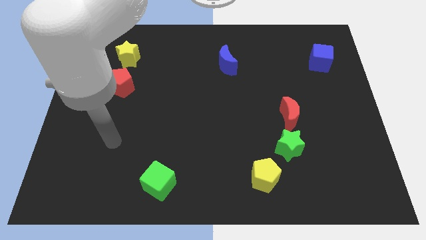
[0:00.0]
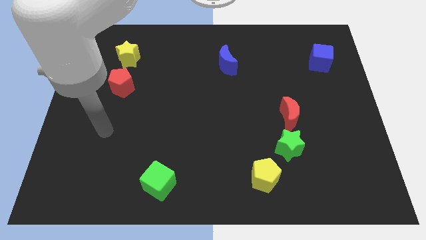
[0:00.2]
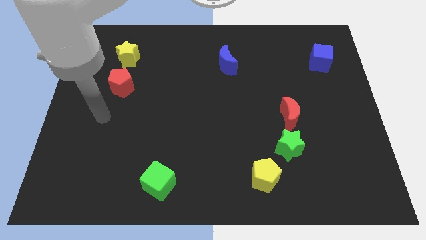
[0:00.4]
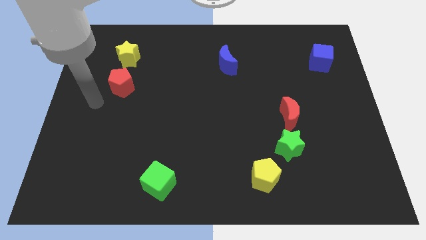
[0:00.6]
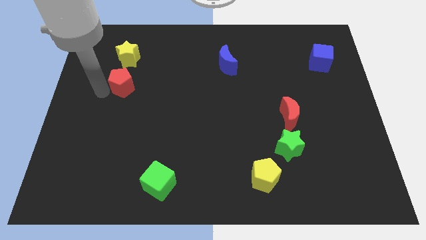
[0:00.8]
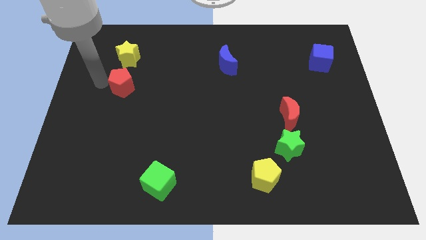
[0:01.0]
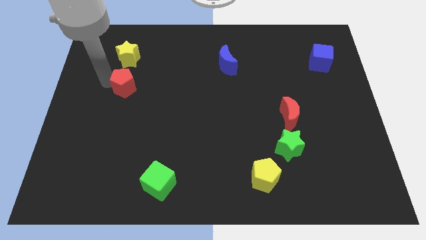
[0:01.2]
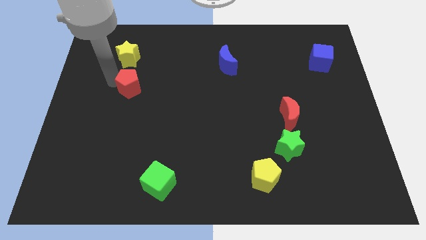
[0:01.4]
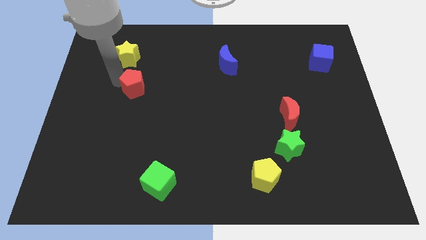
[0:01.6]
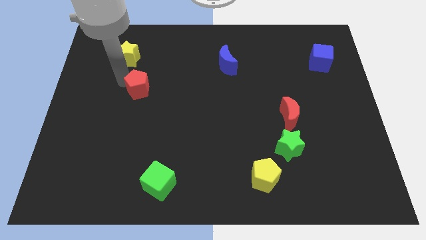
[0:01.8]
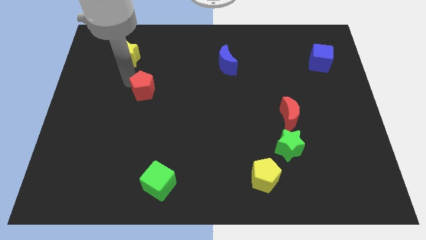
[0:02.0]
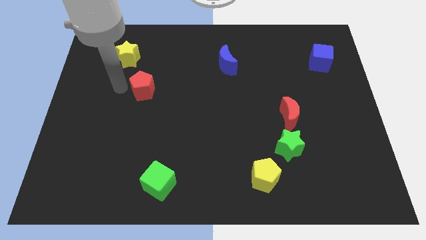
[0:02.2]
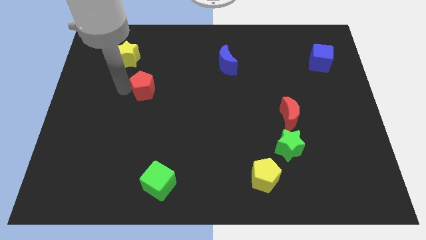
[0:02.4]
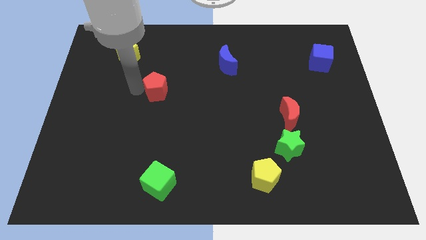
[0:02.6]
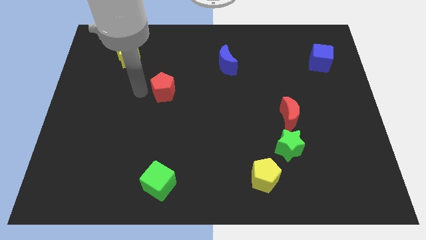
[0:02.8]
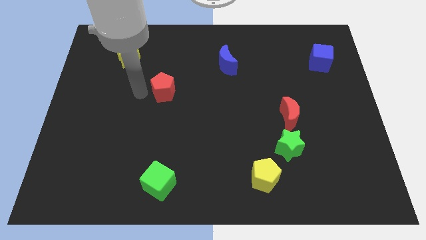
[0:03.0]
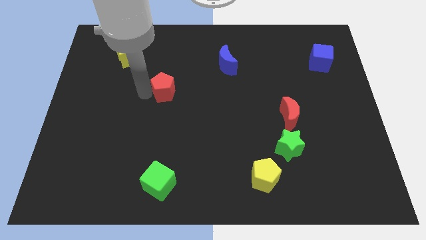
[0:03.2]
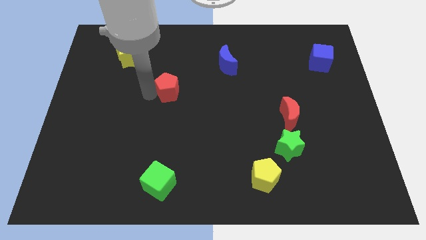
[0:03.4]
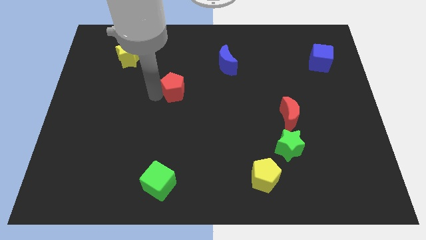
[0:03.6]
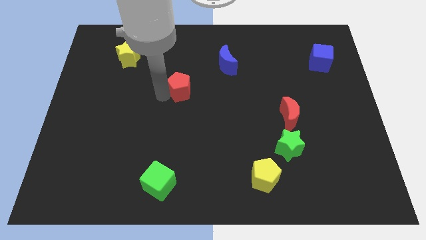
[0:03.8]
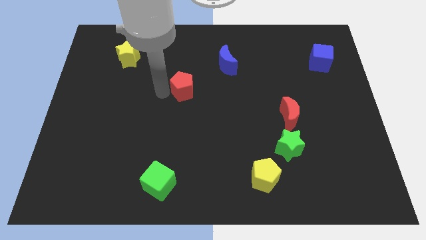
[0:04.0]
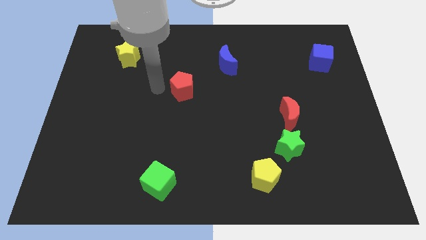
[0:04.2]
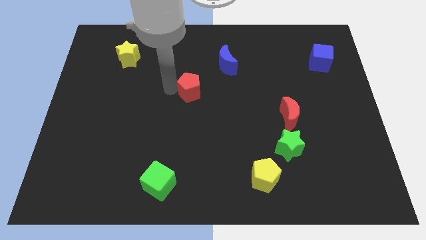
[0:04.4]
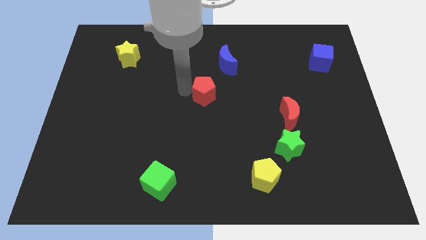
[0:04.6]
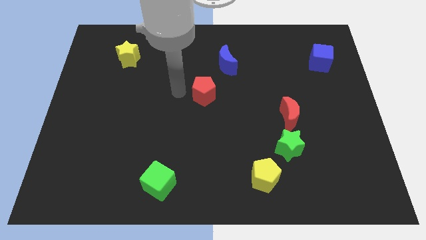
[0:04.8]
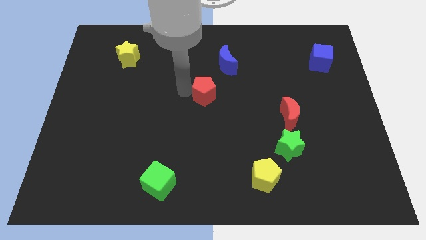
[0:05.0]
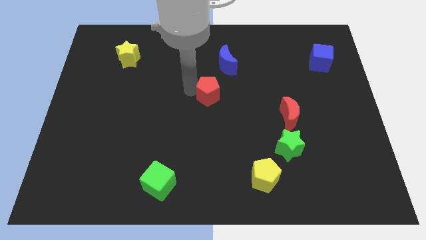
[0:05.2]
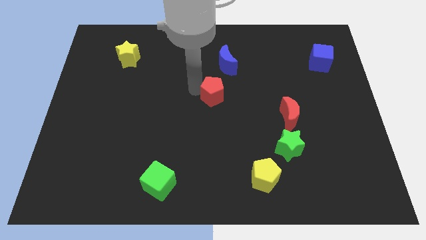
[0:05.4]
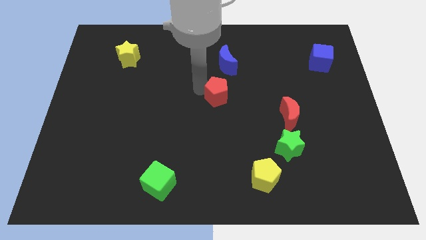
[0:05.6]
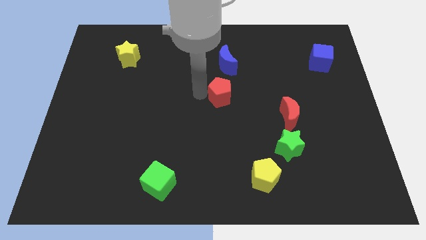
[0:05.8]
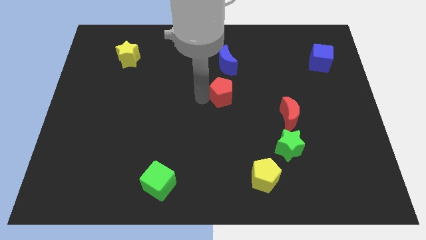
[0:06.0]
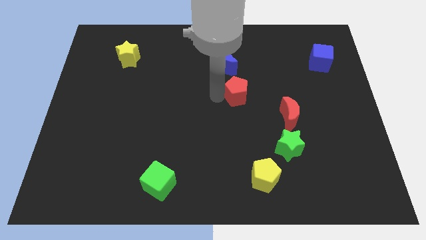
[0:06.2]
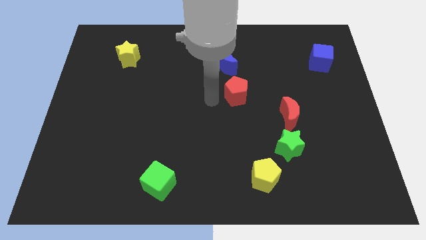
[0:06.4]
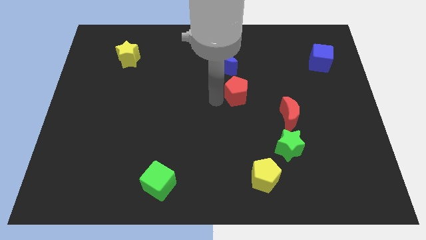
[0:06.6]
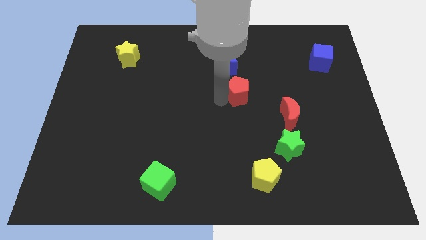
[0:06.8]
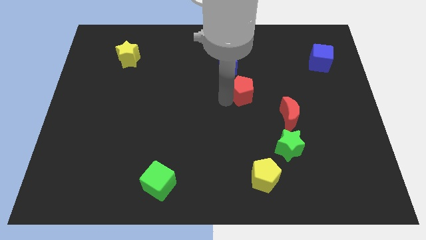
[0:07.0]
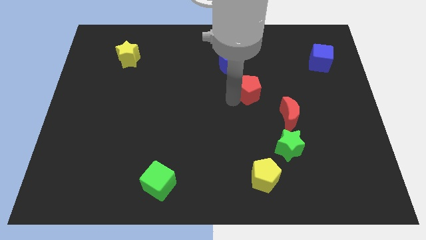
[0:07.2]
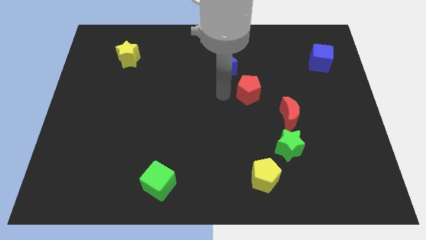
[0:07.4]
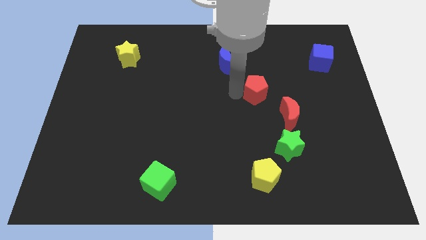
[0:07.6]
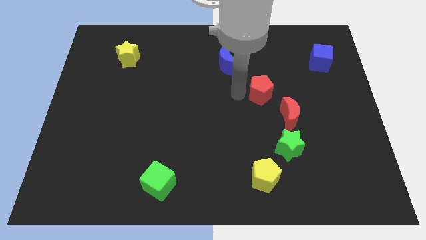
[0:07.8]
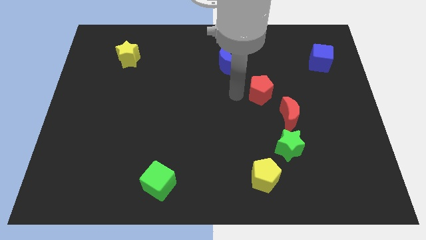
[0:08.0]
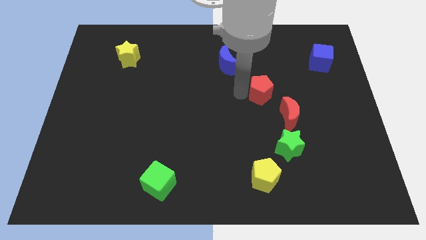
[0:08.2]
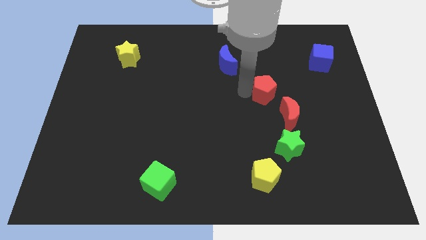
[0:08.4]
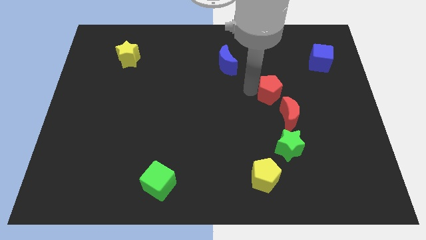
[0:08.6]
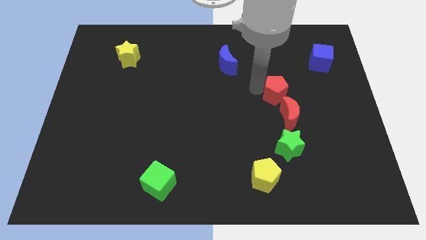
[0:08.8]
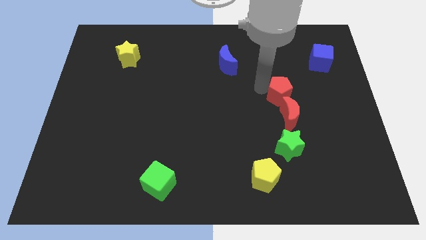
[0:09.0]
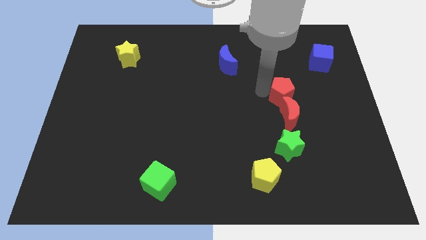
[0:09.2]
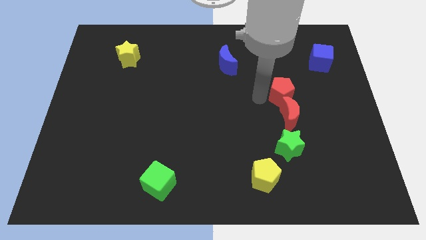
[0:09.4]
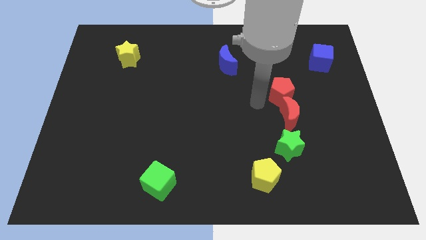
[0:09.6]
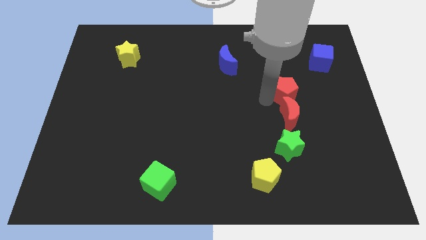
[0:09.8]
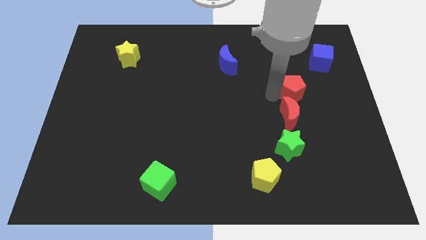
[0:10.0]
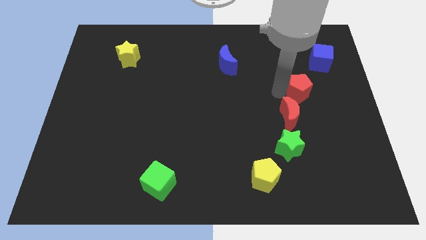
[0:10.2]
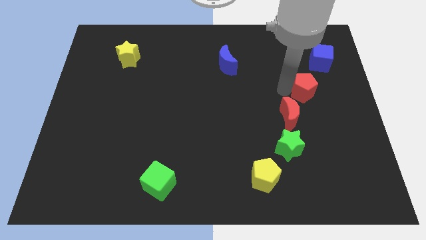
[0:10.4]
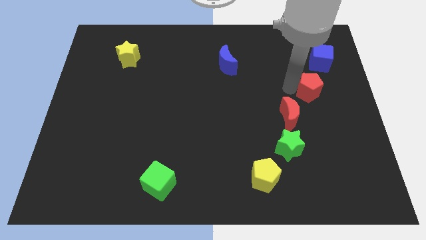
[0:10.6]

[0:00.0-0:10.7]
slide the red pentagon to the bottom of the blue cube

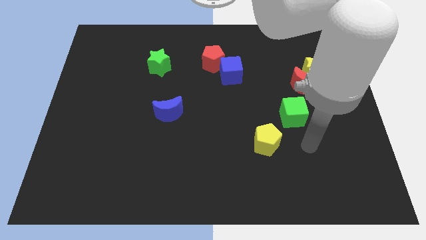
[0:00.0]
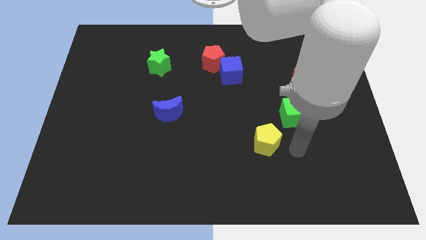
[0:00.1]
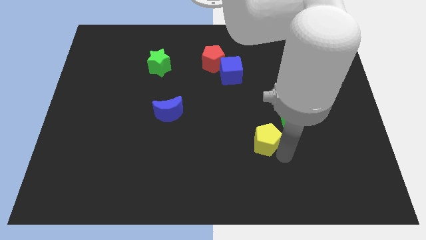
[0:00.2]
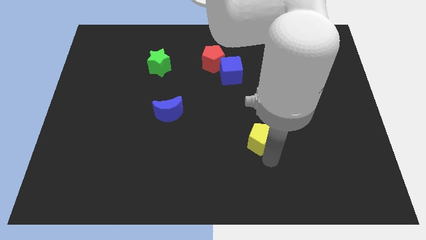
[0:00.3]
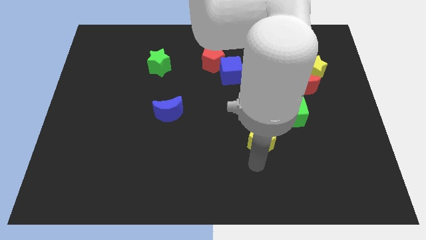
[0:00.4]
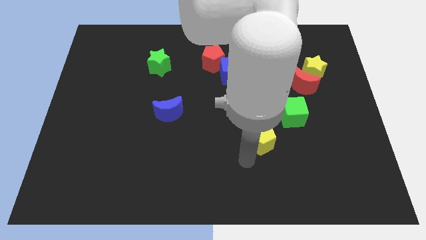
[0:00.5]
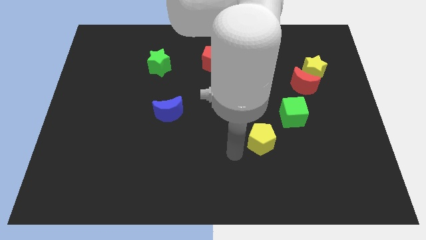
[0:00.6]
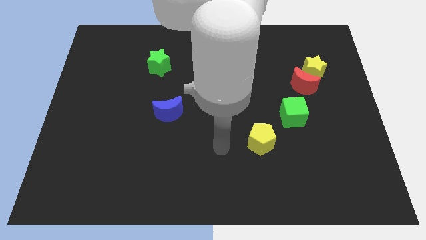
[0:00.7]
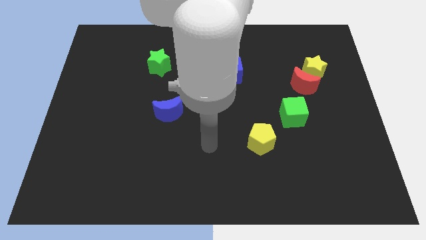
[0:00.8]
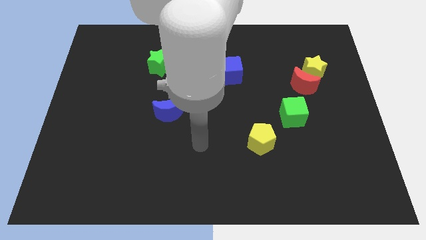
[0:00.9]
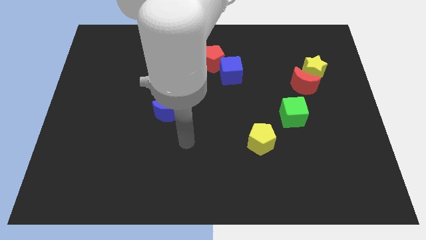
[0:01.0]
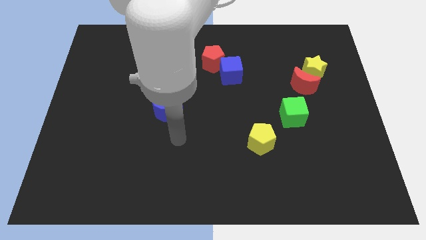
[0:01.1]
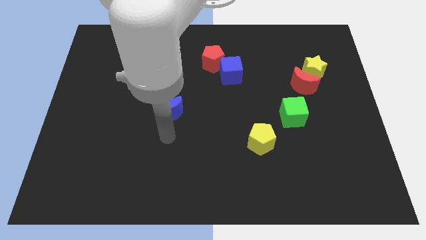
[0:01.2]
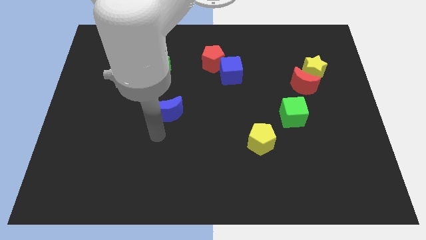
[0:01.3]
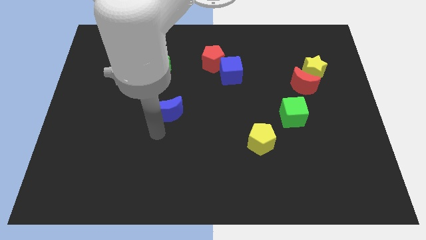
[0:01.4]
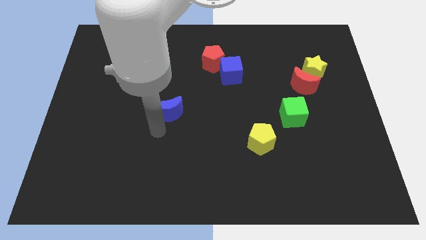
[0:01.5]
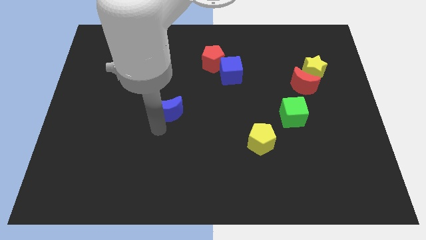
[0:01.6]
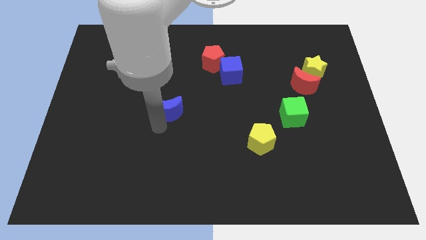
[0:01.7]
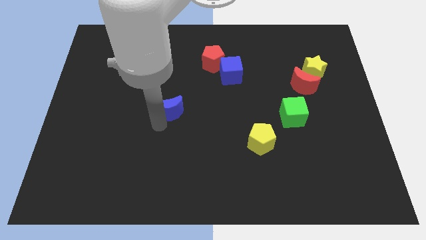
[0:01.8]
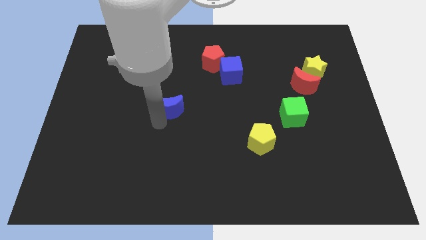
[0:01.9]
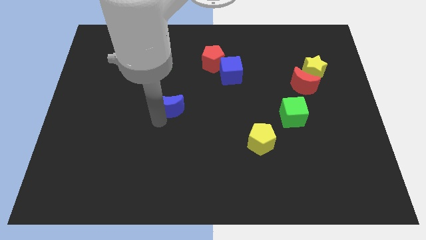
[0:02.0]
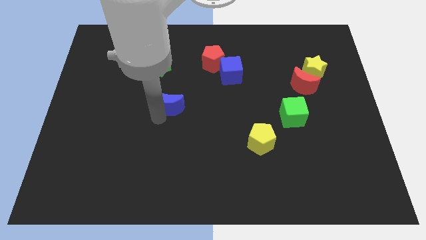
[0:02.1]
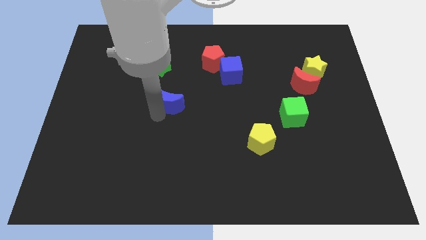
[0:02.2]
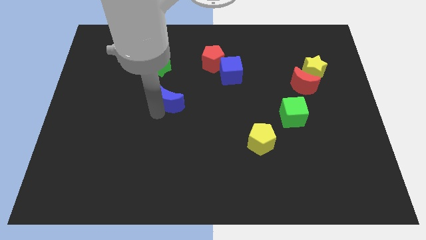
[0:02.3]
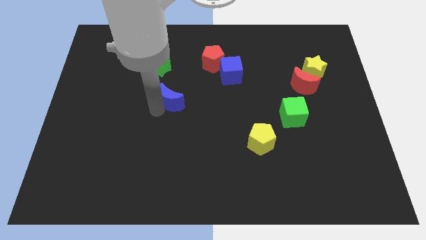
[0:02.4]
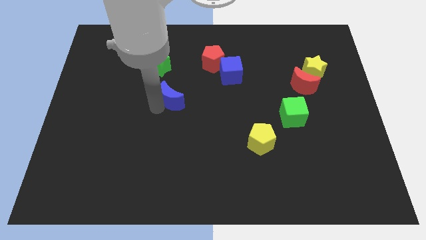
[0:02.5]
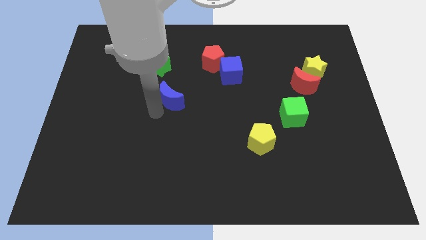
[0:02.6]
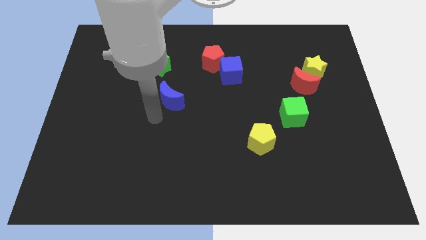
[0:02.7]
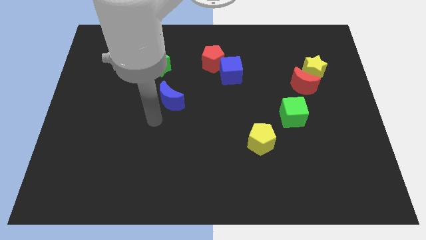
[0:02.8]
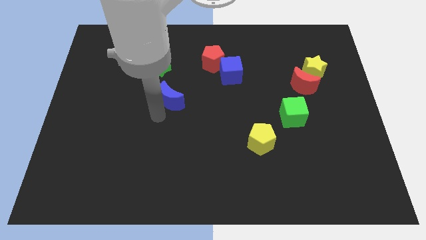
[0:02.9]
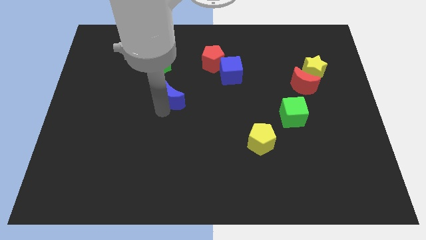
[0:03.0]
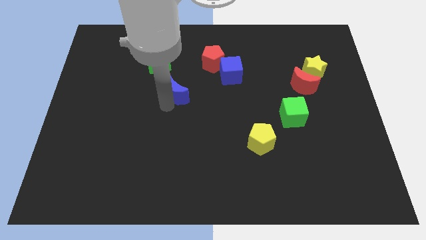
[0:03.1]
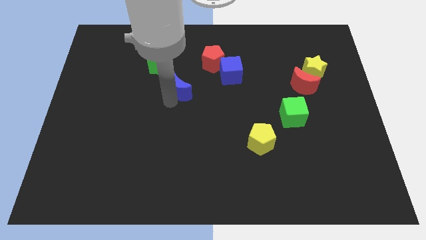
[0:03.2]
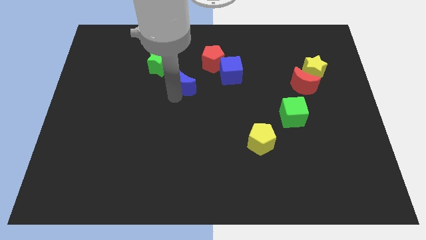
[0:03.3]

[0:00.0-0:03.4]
put the blue moon to the left side of the blue cube
